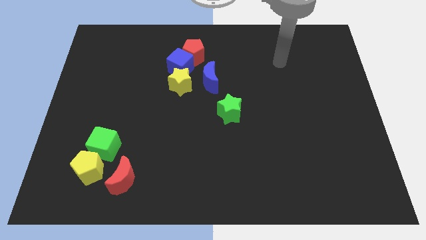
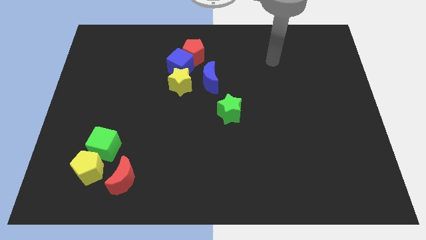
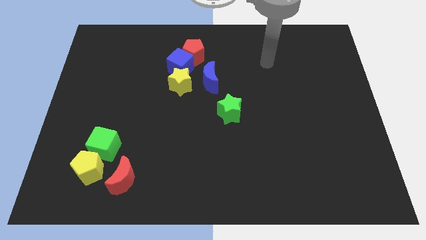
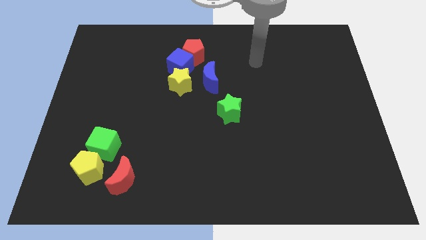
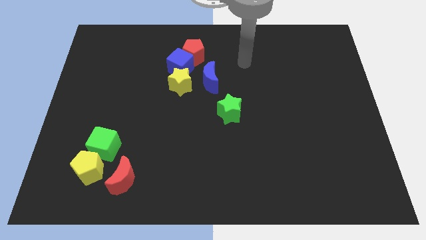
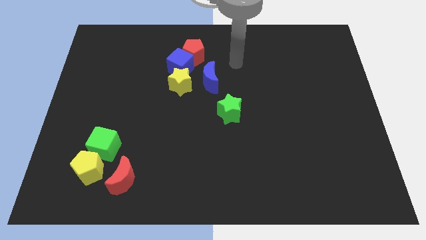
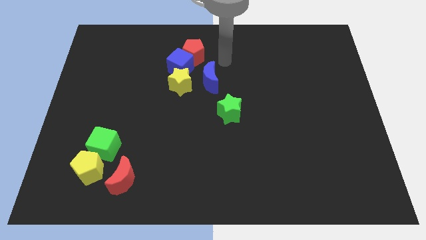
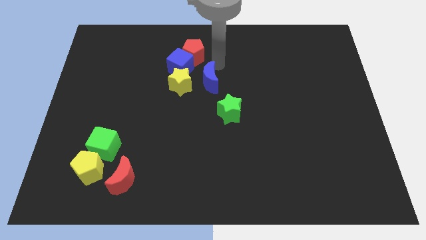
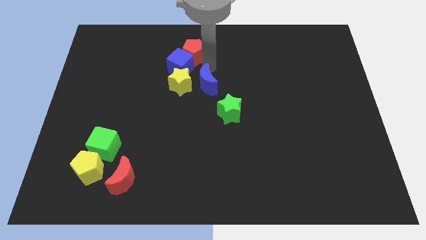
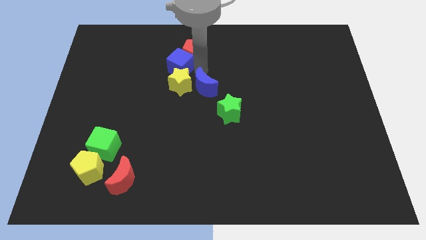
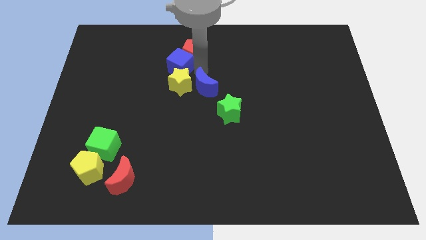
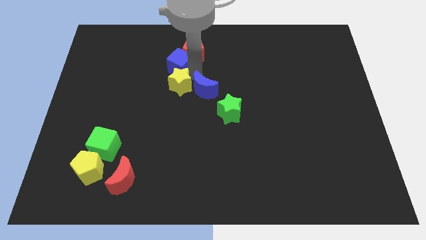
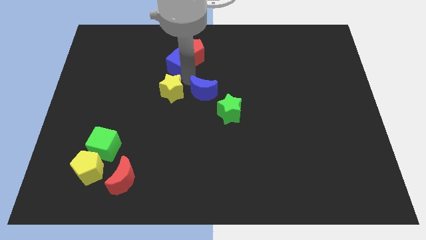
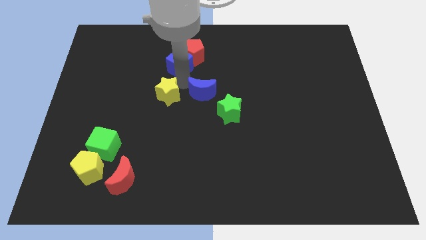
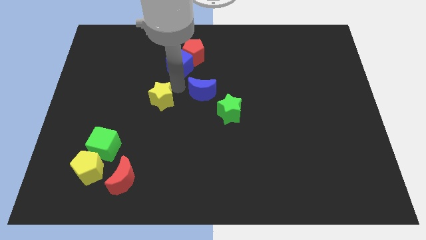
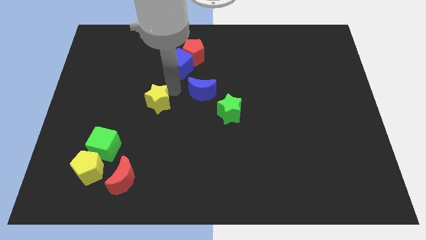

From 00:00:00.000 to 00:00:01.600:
pull the yellow star apart from the blue cube and blue moon

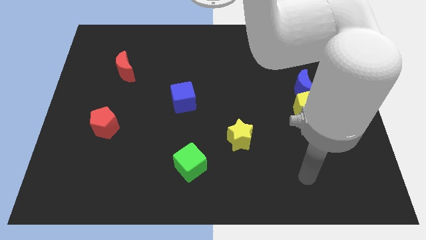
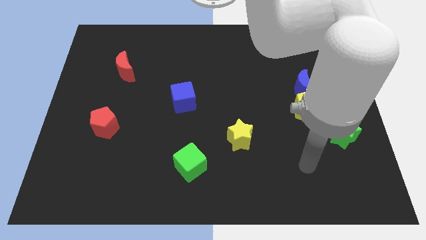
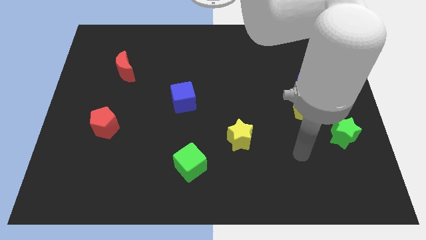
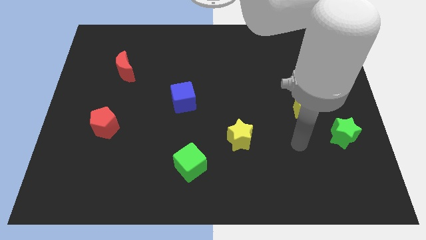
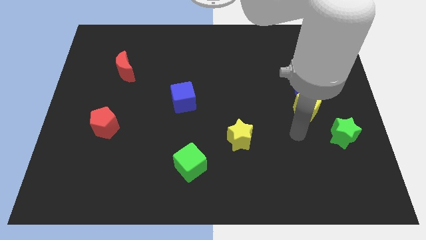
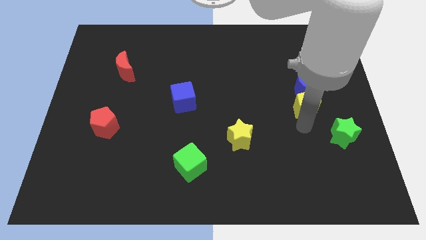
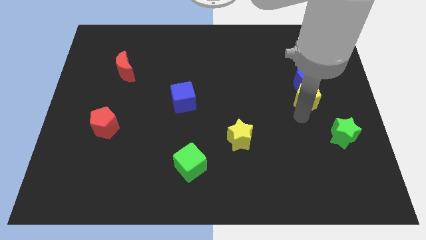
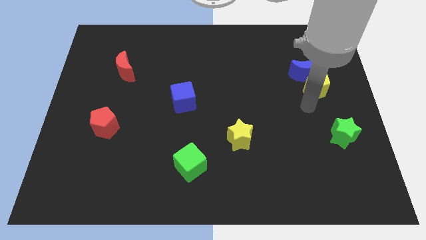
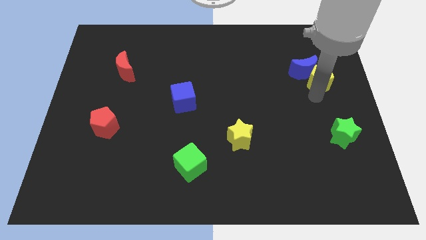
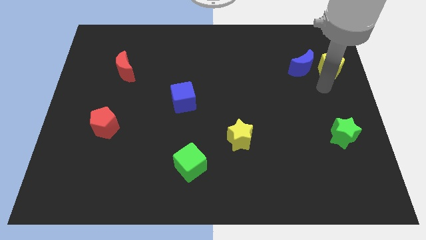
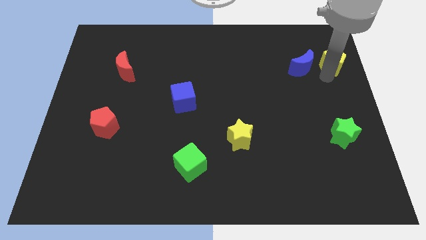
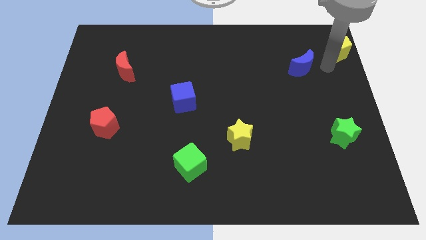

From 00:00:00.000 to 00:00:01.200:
separate the blue moon from the yellow pentagon

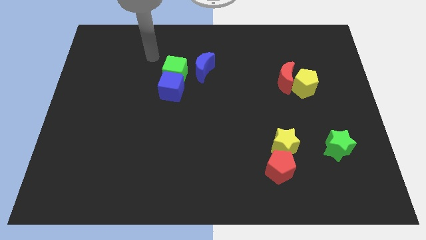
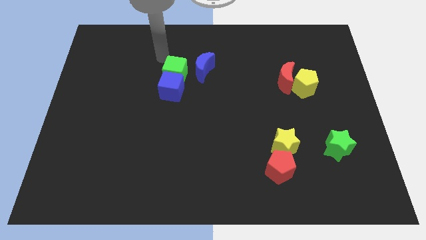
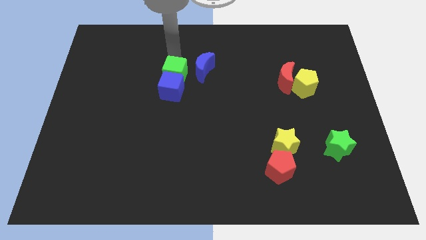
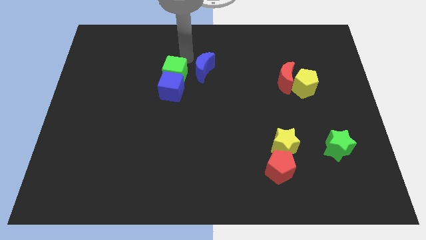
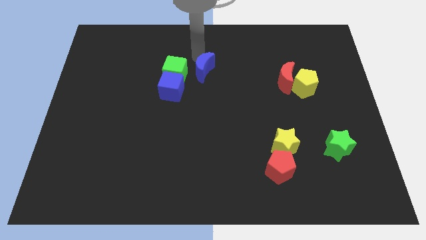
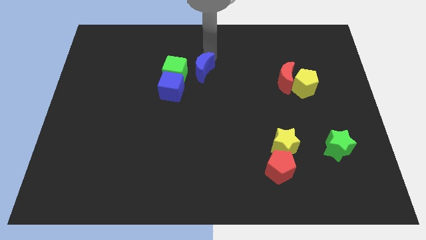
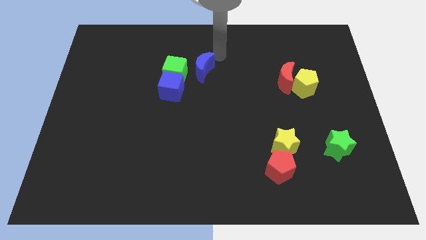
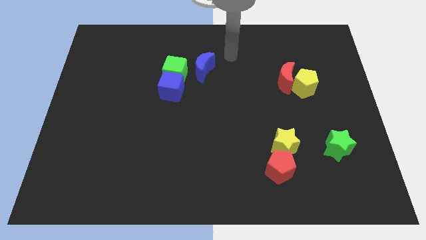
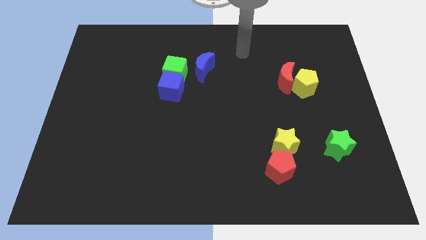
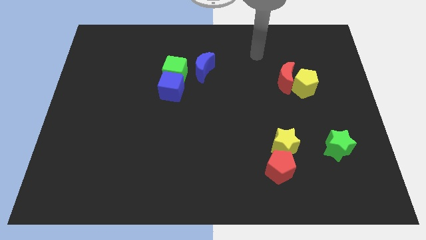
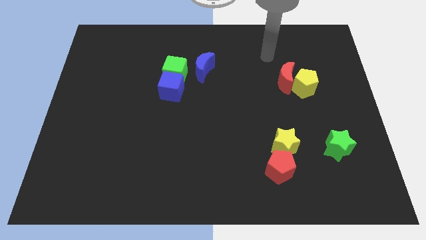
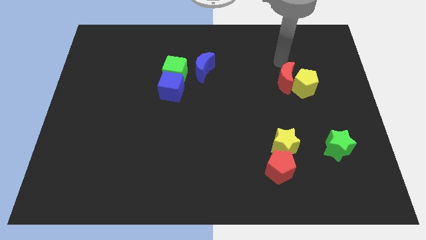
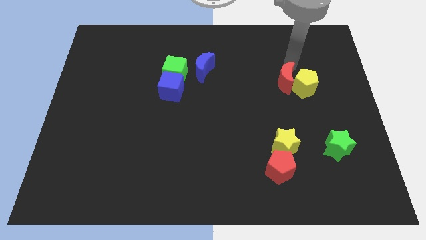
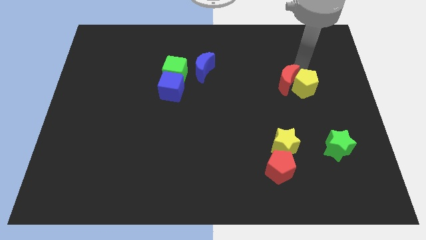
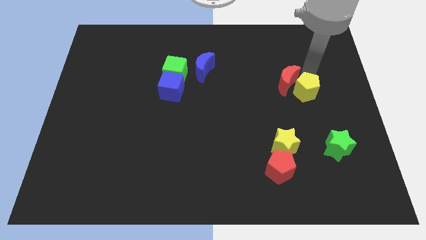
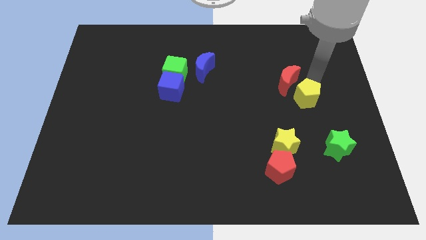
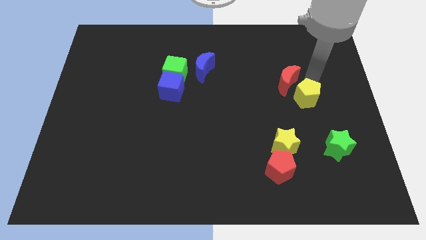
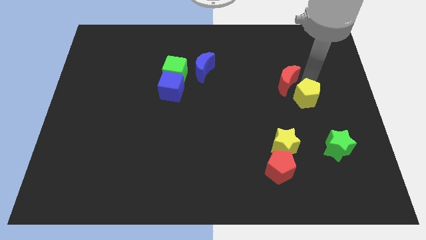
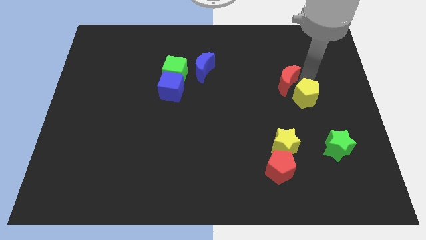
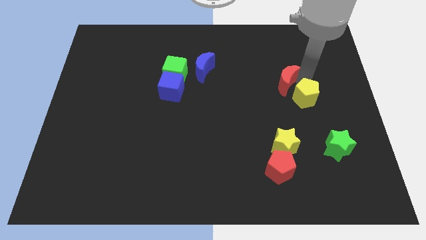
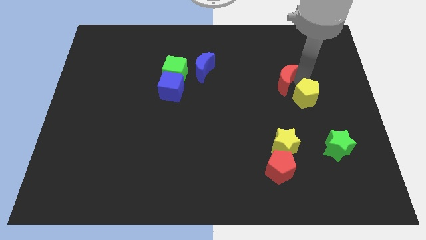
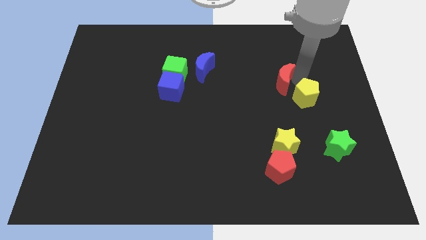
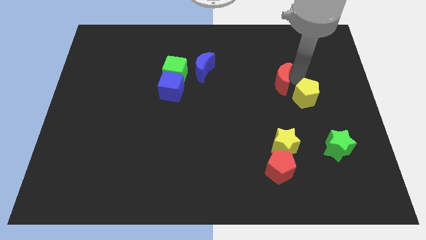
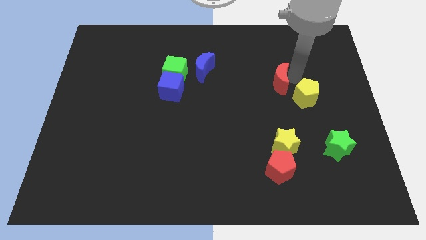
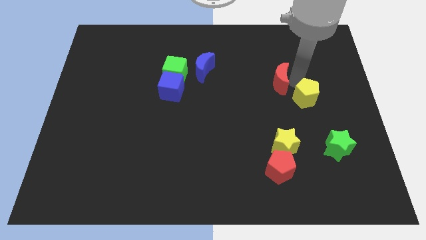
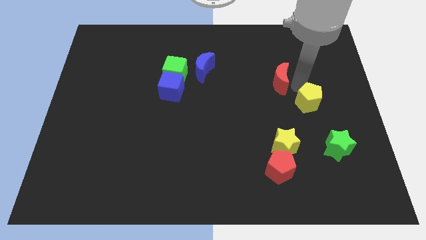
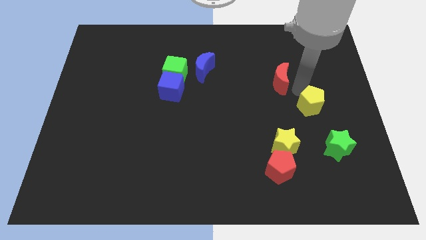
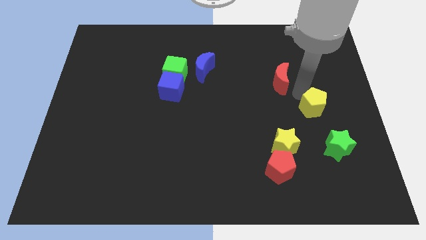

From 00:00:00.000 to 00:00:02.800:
separate the red moon from the yellow pentagon

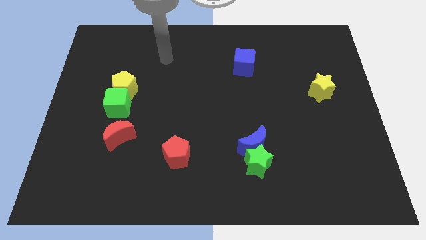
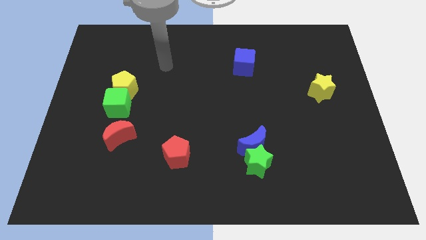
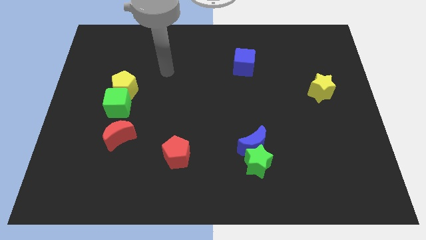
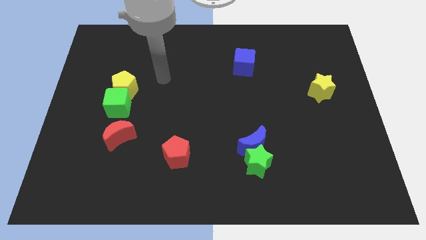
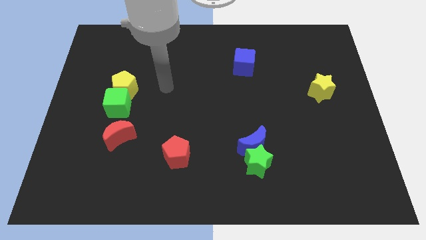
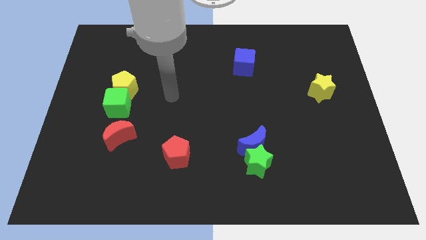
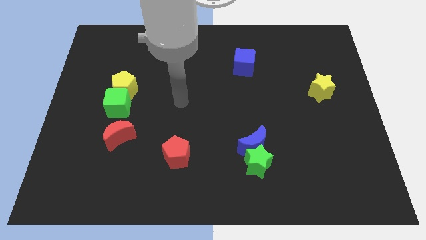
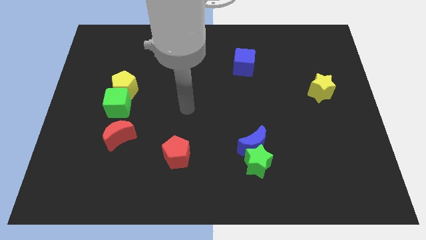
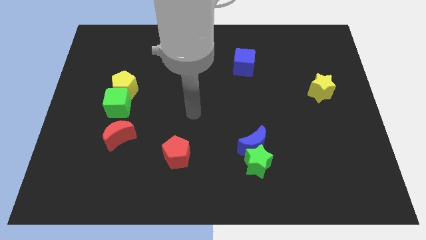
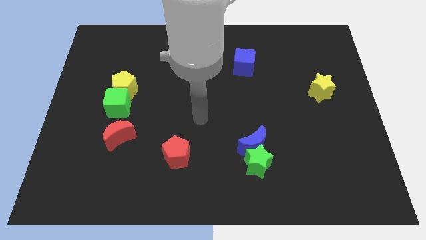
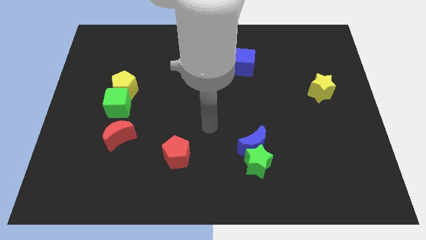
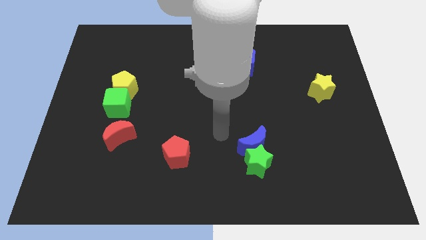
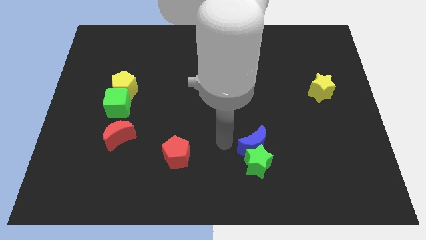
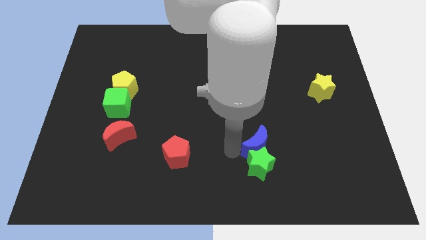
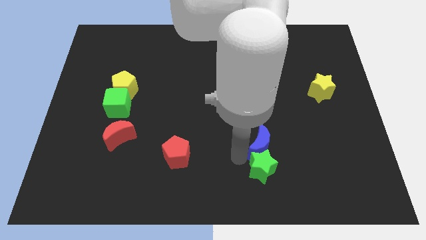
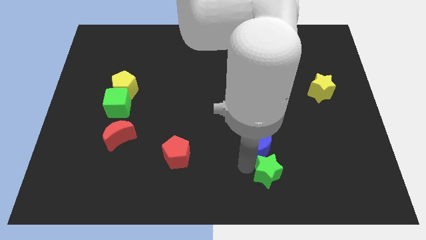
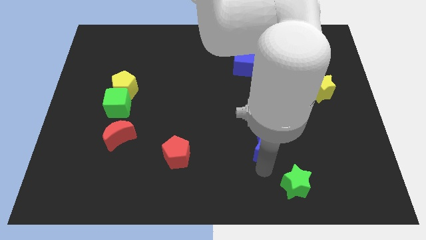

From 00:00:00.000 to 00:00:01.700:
separate the blue moon from the green star

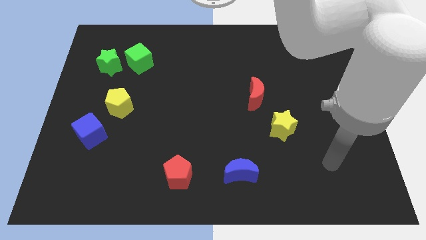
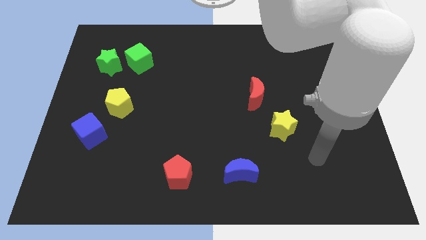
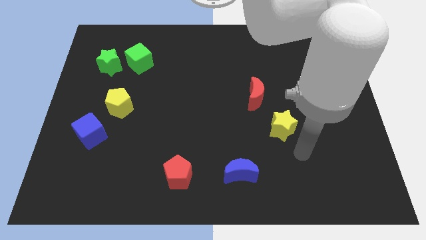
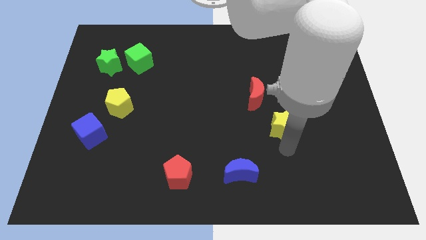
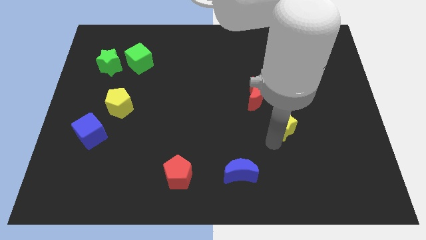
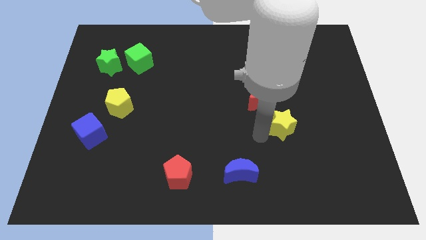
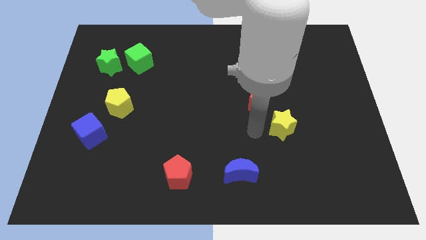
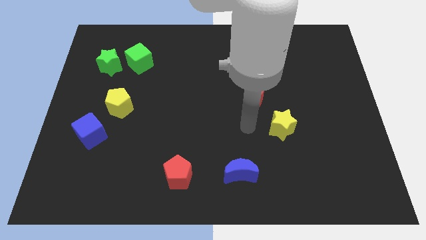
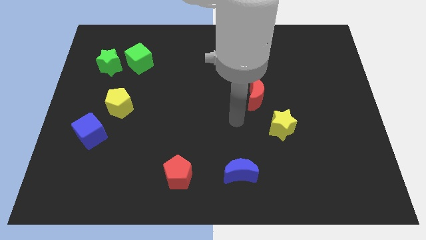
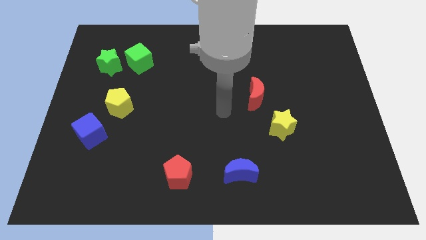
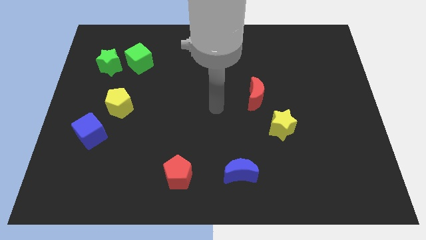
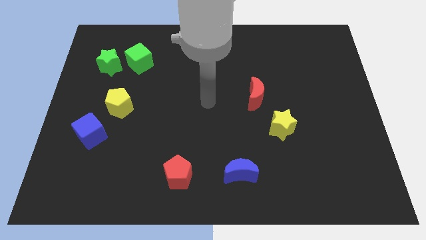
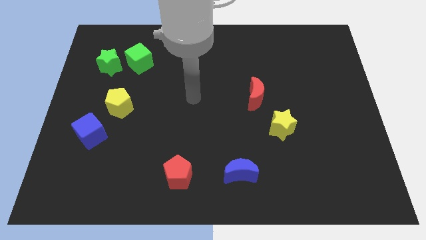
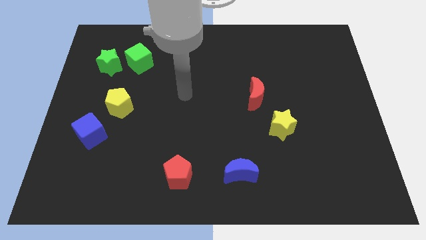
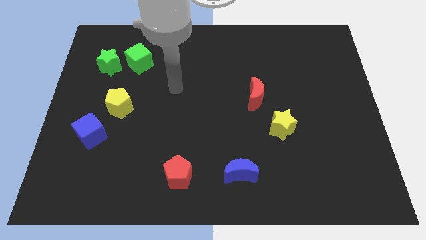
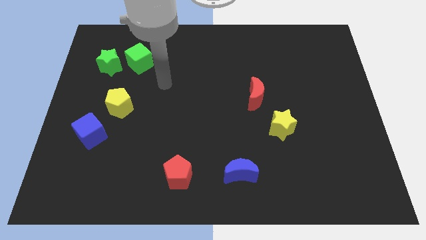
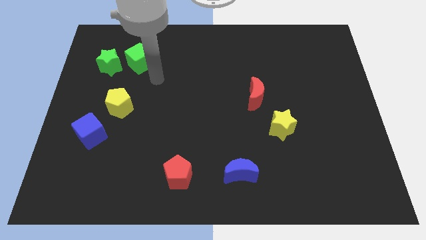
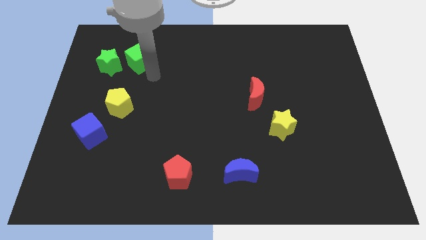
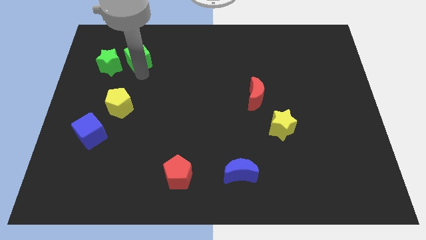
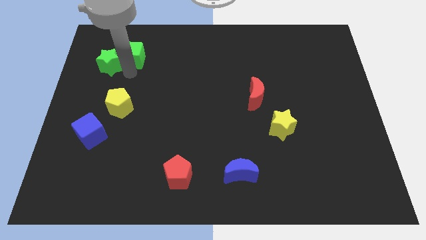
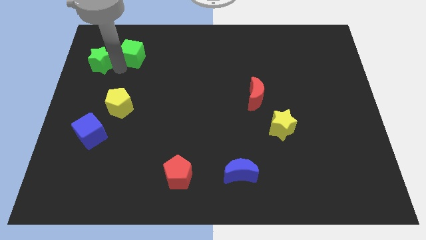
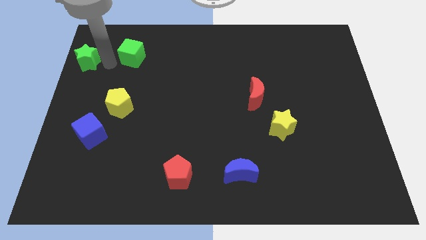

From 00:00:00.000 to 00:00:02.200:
separate the green cube from the green star
